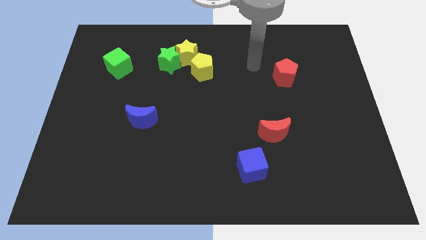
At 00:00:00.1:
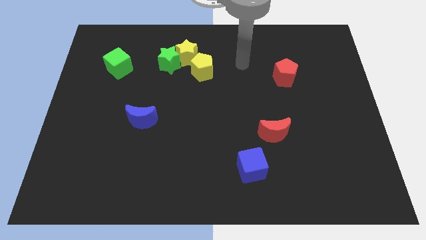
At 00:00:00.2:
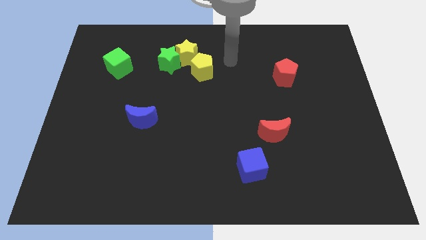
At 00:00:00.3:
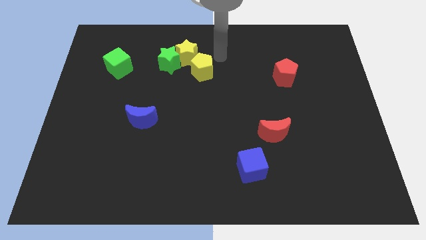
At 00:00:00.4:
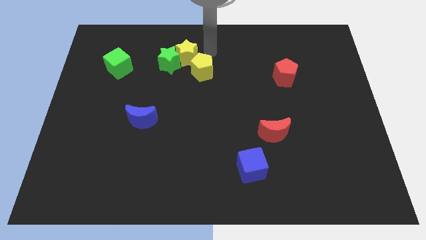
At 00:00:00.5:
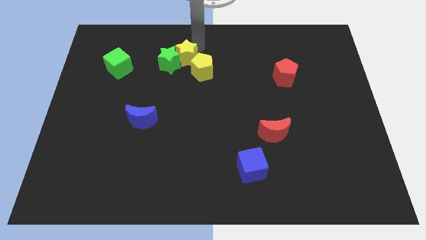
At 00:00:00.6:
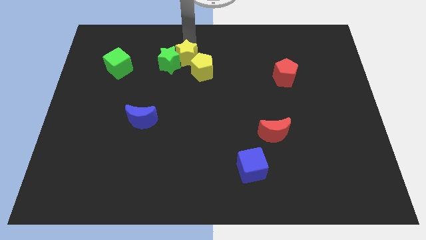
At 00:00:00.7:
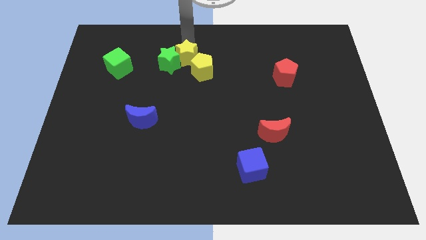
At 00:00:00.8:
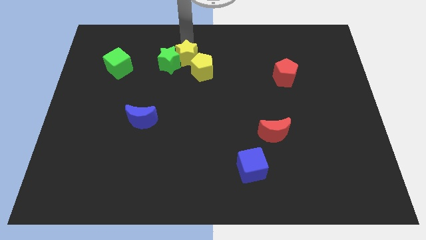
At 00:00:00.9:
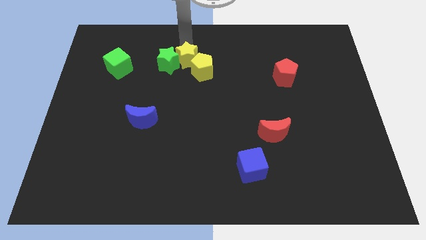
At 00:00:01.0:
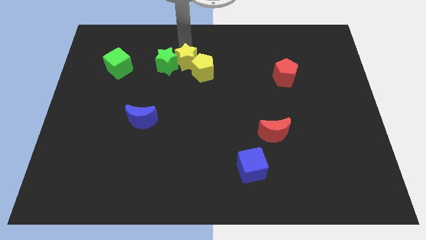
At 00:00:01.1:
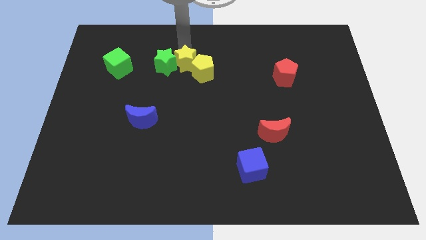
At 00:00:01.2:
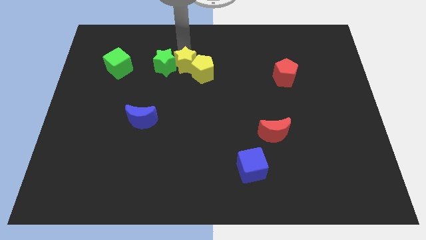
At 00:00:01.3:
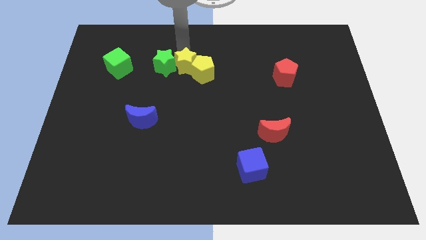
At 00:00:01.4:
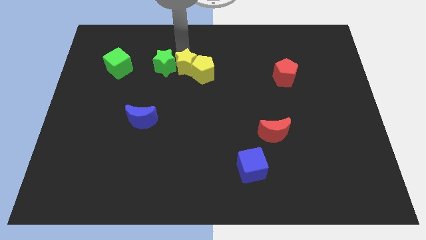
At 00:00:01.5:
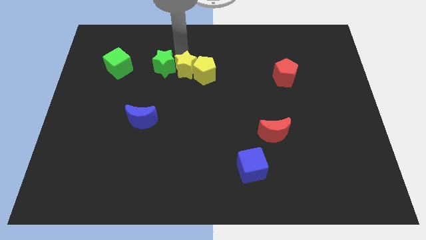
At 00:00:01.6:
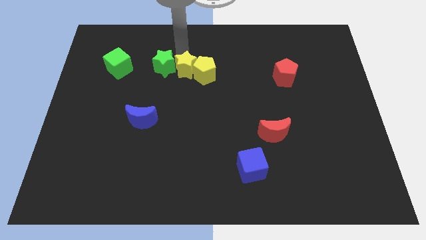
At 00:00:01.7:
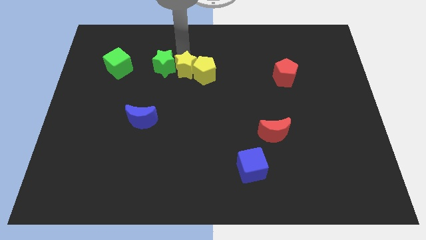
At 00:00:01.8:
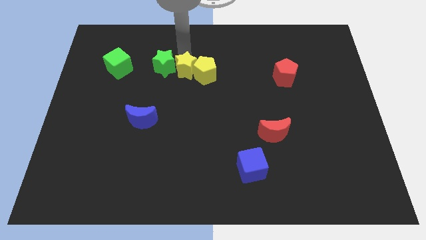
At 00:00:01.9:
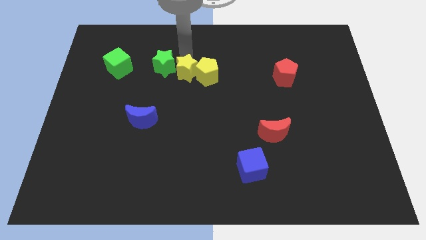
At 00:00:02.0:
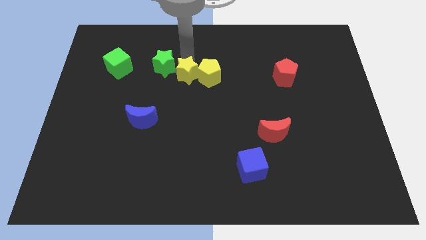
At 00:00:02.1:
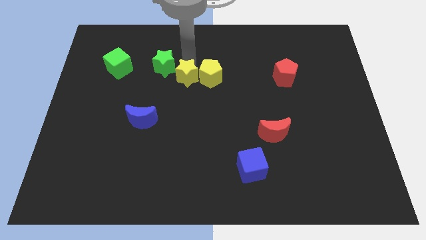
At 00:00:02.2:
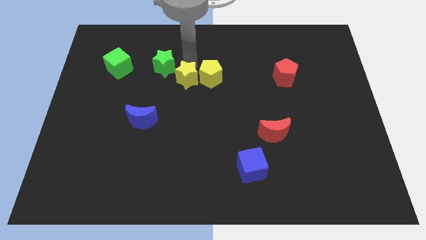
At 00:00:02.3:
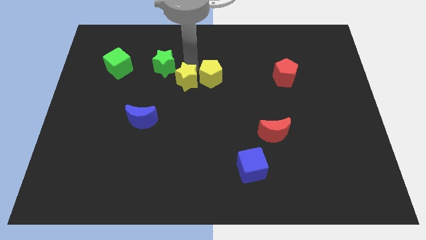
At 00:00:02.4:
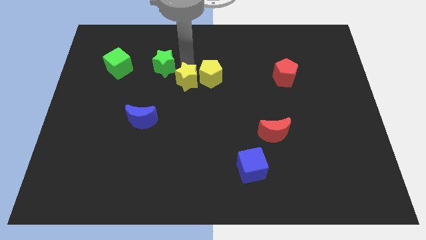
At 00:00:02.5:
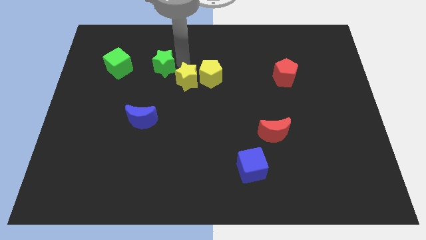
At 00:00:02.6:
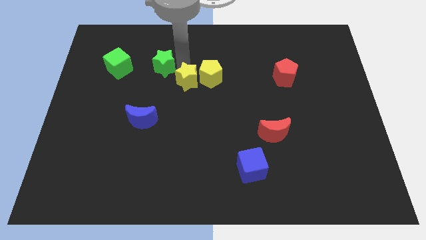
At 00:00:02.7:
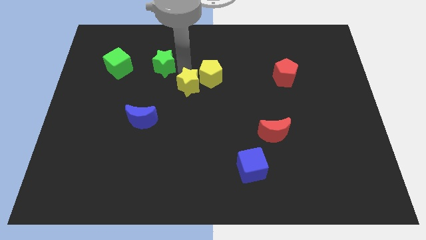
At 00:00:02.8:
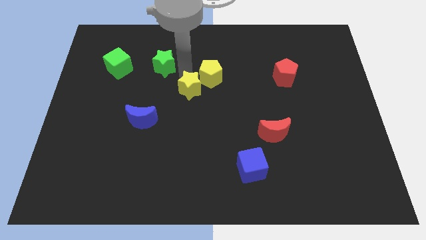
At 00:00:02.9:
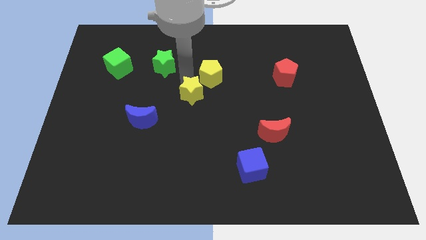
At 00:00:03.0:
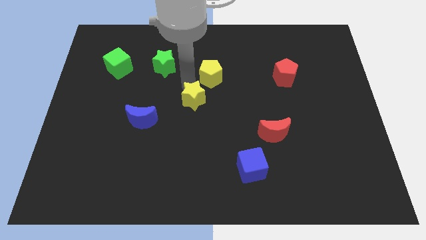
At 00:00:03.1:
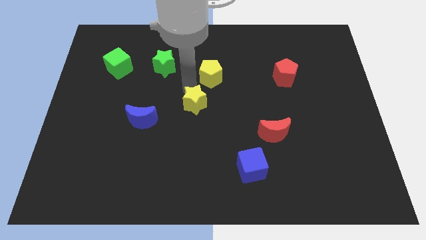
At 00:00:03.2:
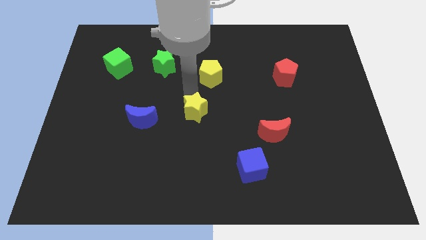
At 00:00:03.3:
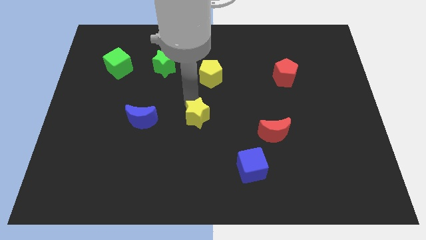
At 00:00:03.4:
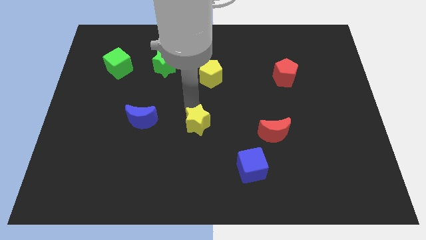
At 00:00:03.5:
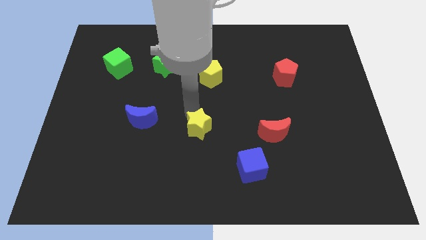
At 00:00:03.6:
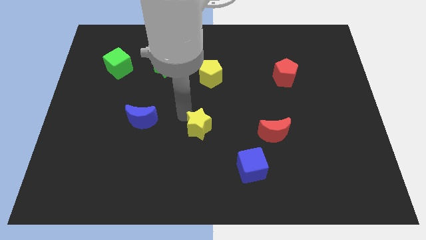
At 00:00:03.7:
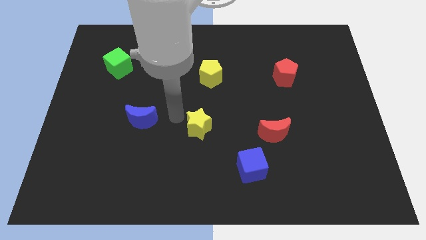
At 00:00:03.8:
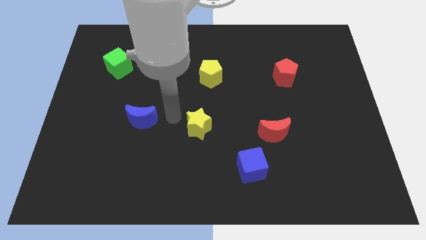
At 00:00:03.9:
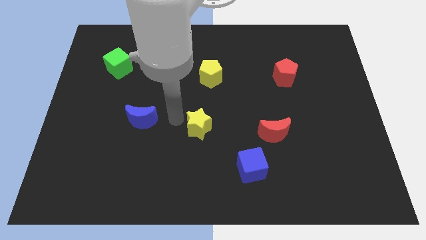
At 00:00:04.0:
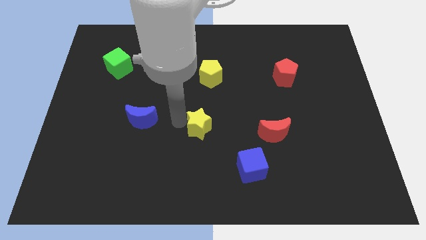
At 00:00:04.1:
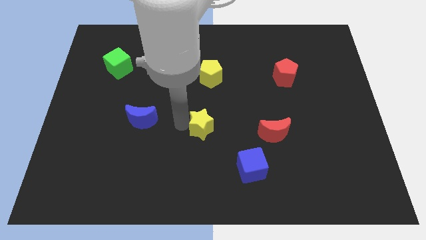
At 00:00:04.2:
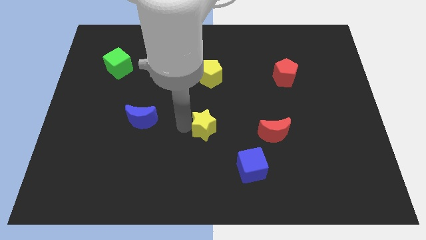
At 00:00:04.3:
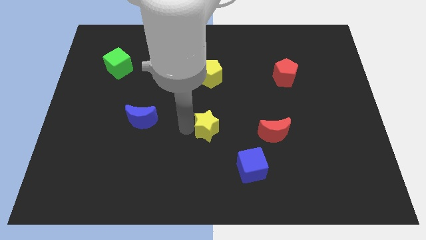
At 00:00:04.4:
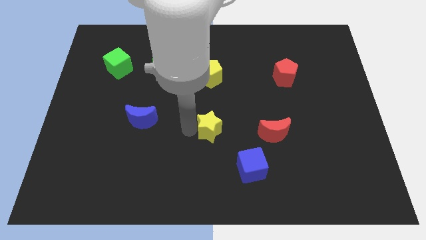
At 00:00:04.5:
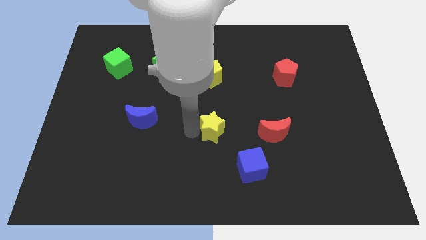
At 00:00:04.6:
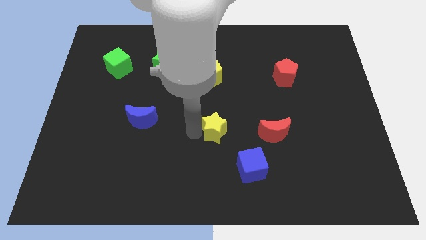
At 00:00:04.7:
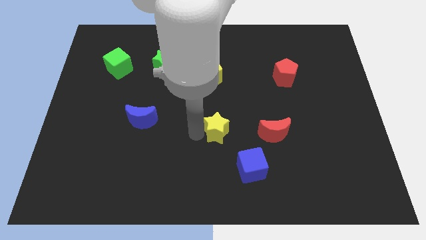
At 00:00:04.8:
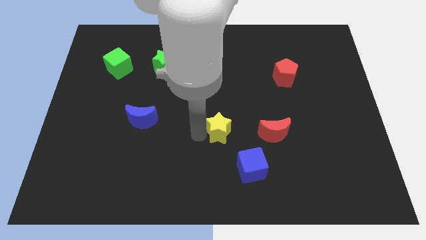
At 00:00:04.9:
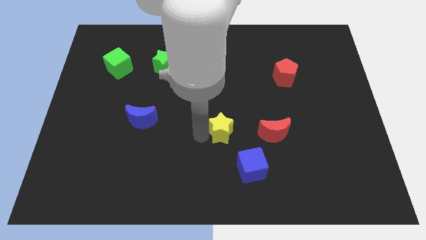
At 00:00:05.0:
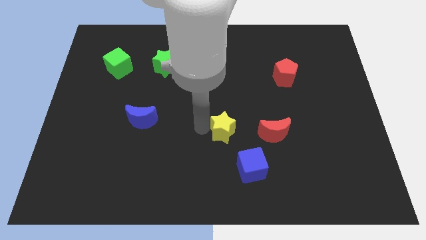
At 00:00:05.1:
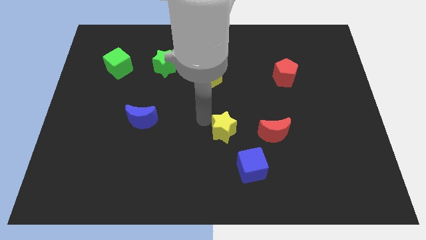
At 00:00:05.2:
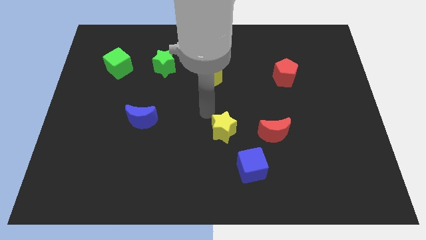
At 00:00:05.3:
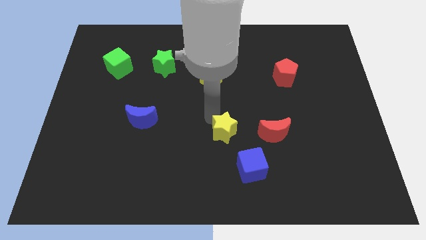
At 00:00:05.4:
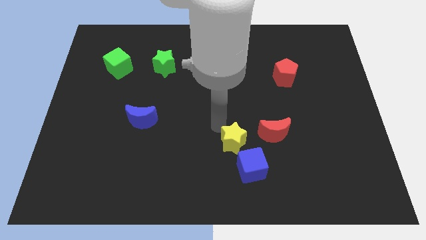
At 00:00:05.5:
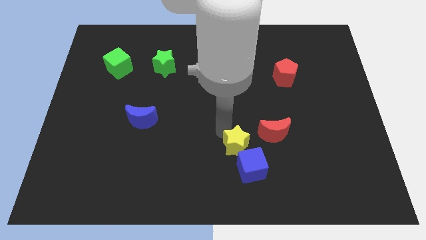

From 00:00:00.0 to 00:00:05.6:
move the yellow star towards the blue cube

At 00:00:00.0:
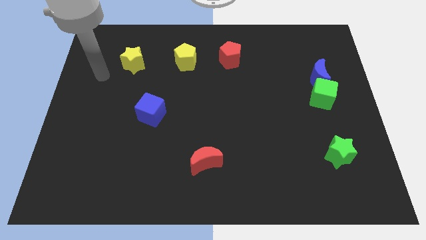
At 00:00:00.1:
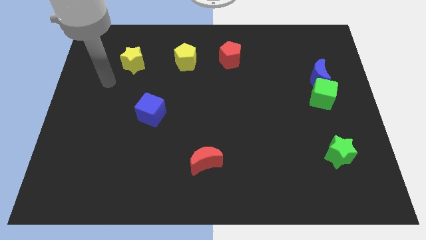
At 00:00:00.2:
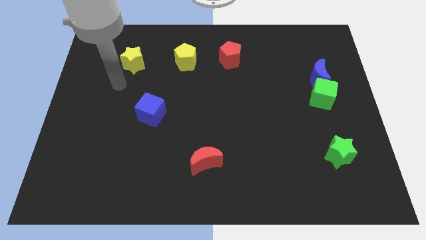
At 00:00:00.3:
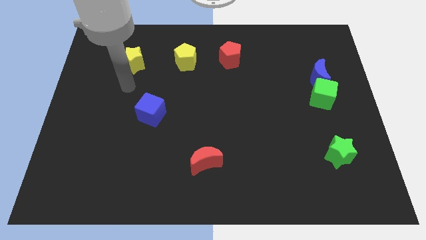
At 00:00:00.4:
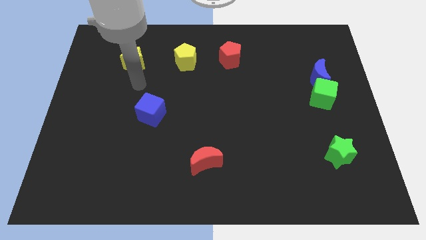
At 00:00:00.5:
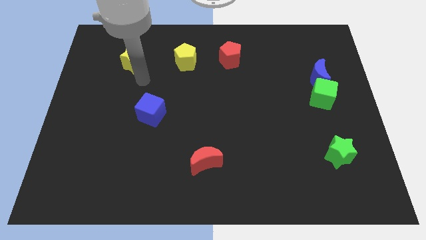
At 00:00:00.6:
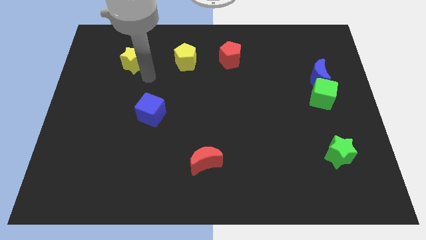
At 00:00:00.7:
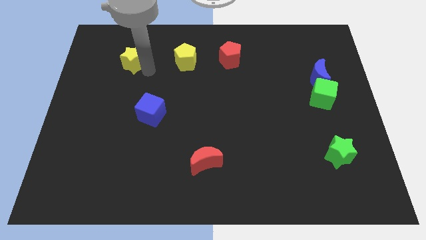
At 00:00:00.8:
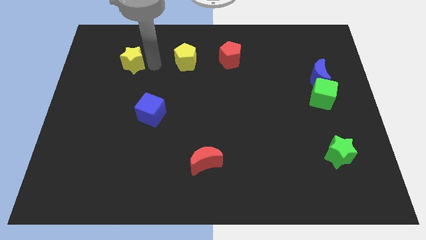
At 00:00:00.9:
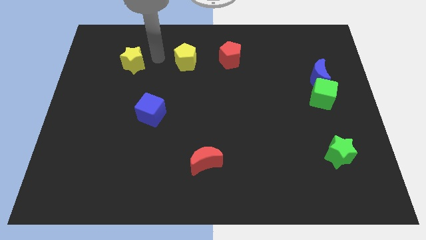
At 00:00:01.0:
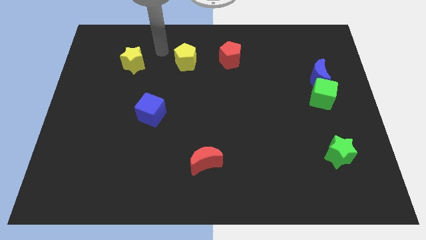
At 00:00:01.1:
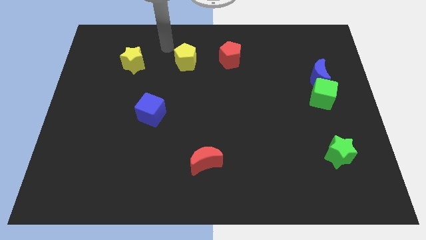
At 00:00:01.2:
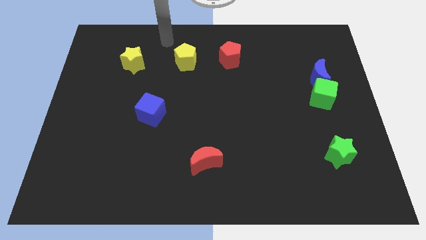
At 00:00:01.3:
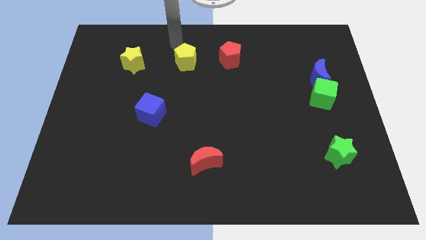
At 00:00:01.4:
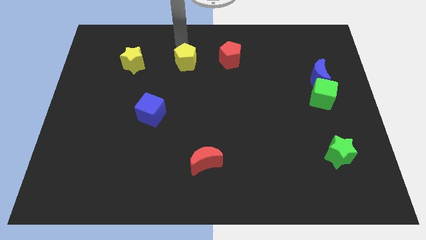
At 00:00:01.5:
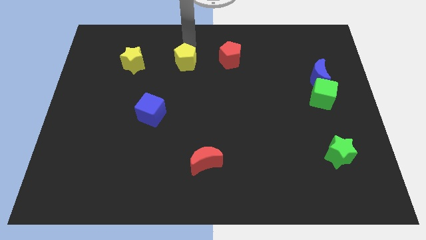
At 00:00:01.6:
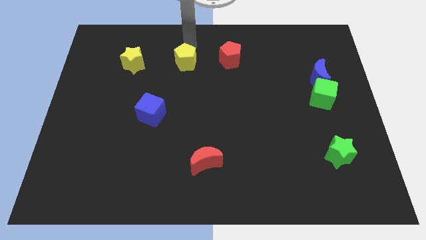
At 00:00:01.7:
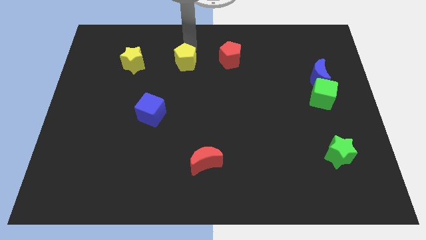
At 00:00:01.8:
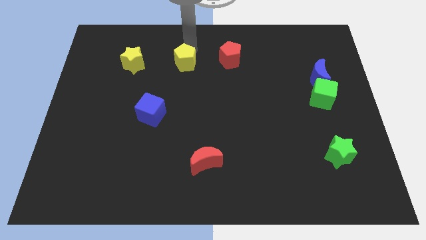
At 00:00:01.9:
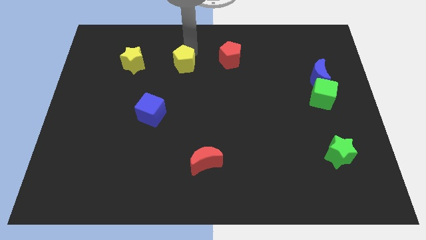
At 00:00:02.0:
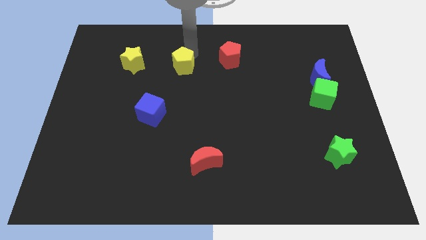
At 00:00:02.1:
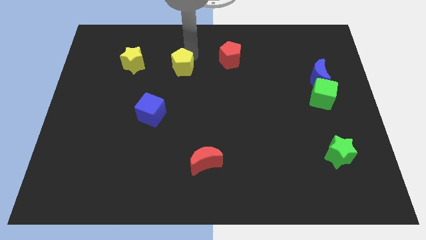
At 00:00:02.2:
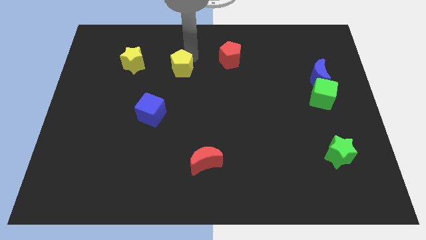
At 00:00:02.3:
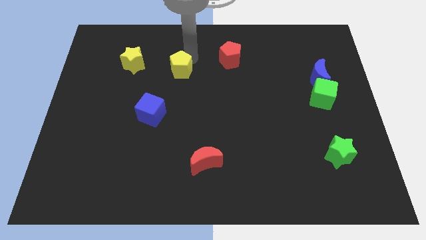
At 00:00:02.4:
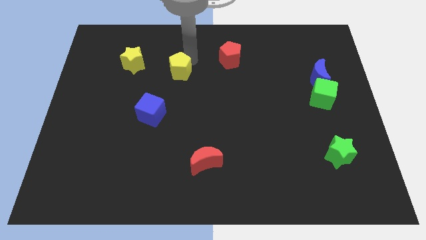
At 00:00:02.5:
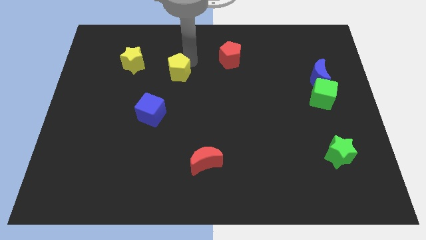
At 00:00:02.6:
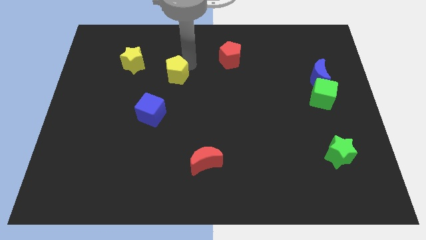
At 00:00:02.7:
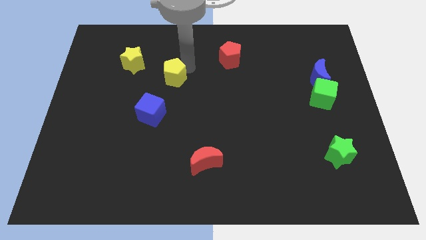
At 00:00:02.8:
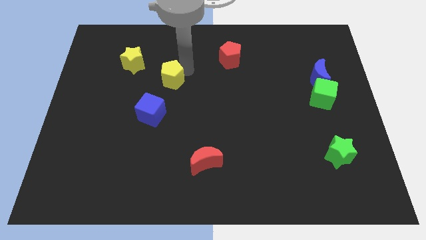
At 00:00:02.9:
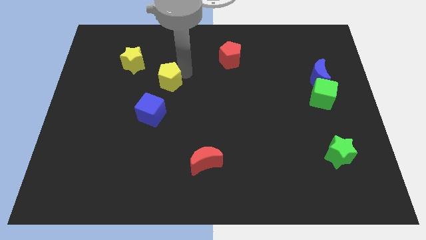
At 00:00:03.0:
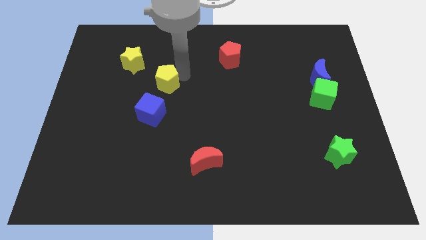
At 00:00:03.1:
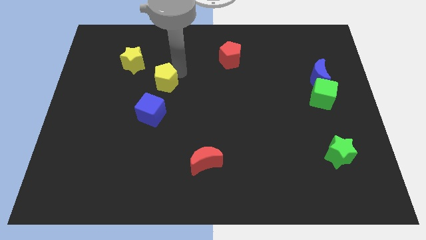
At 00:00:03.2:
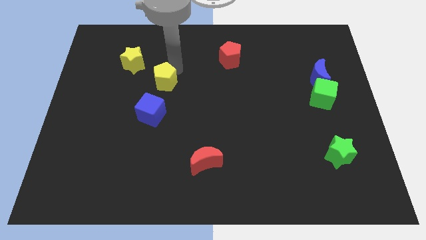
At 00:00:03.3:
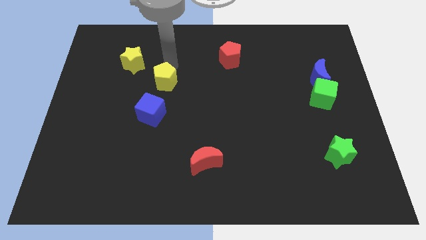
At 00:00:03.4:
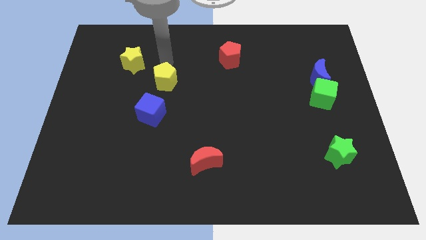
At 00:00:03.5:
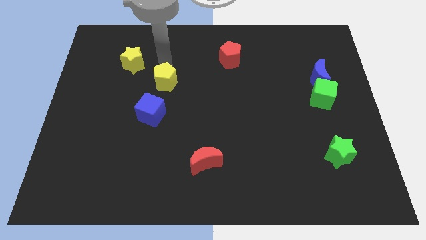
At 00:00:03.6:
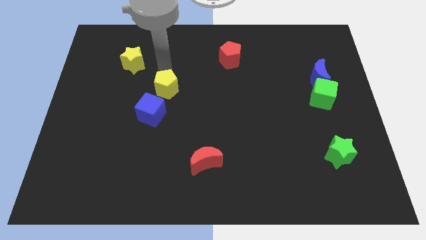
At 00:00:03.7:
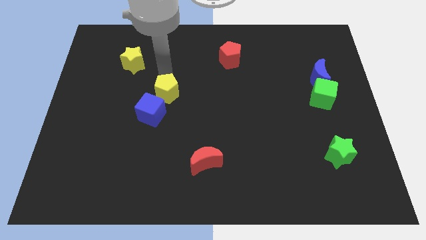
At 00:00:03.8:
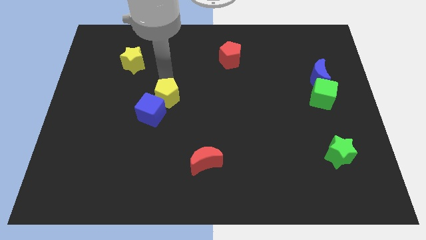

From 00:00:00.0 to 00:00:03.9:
put the yellow pentagon to the blue cube
